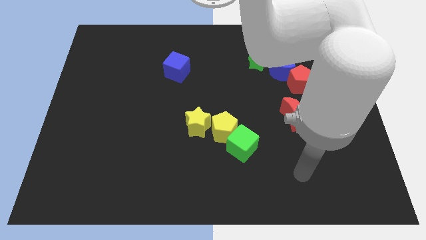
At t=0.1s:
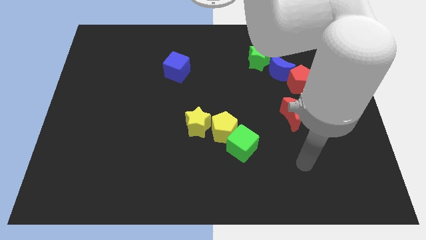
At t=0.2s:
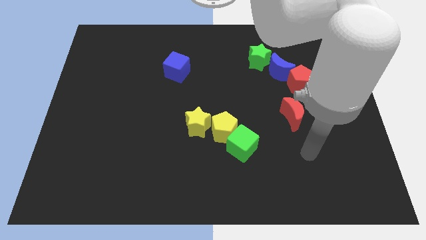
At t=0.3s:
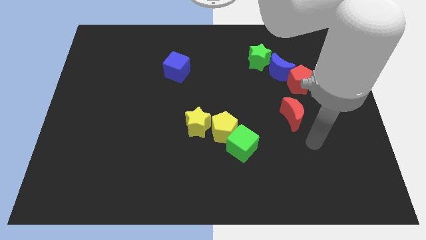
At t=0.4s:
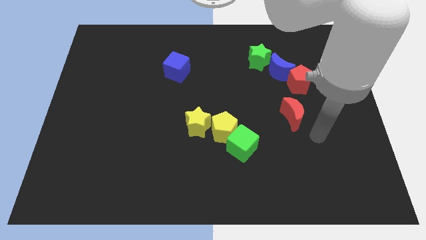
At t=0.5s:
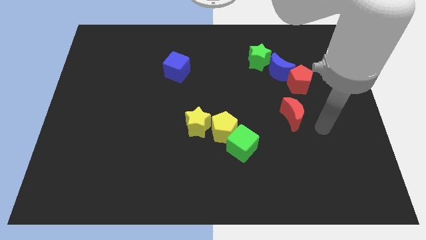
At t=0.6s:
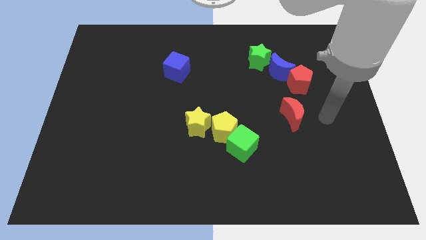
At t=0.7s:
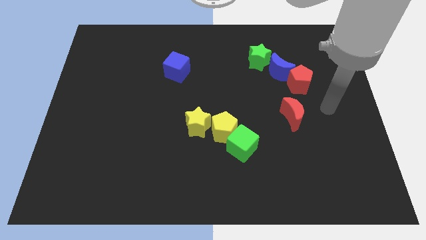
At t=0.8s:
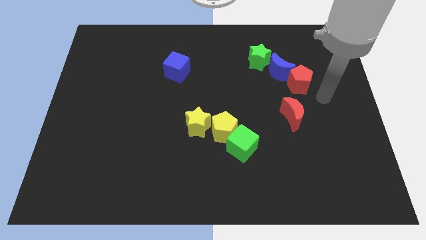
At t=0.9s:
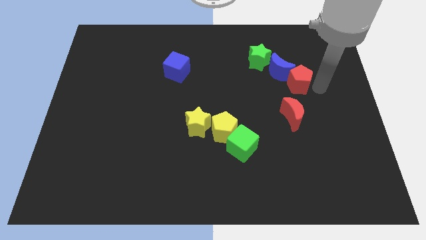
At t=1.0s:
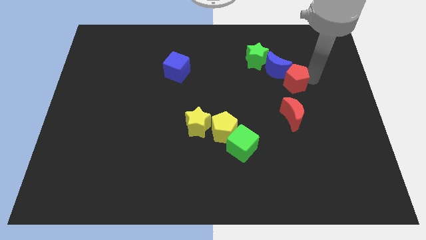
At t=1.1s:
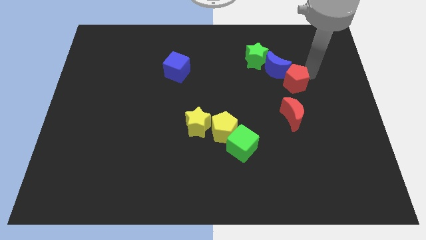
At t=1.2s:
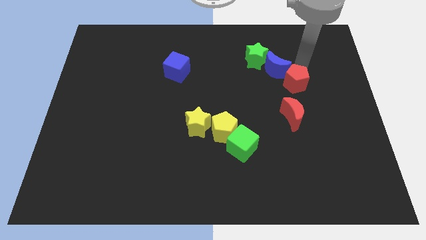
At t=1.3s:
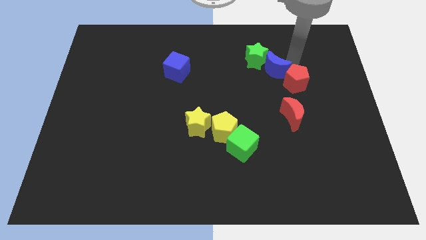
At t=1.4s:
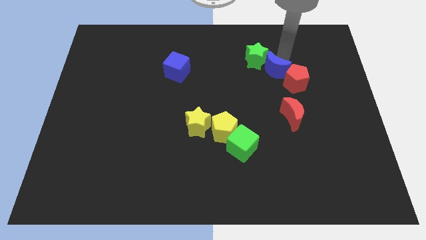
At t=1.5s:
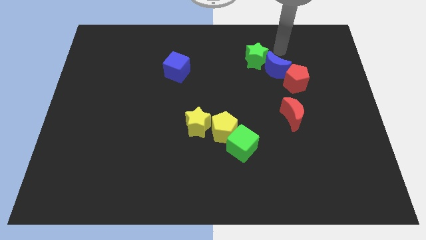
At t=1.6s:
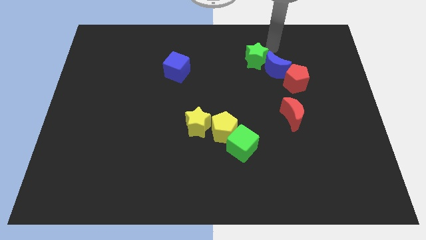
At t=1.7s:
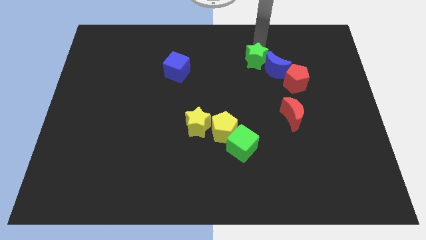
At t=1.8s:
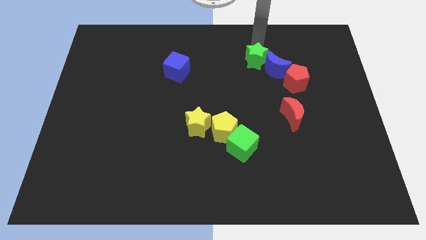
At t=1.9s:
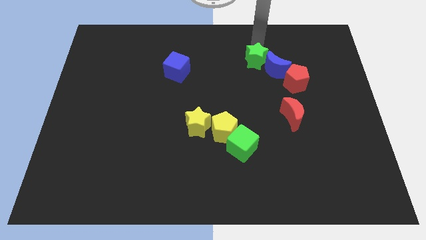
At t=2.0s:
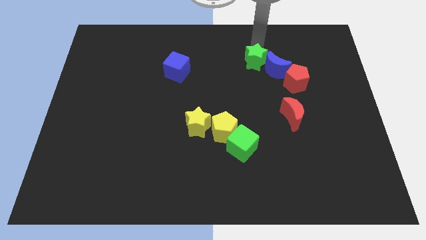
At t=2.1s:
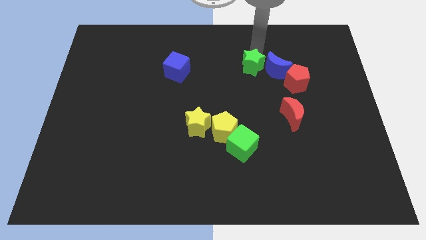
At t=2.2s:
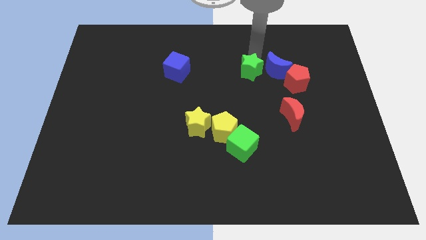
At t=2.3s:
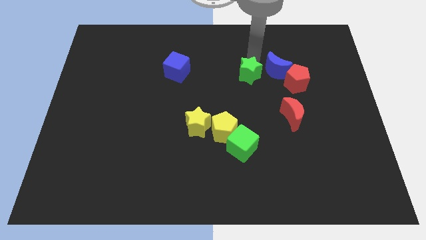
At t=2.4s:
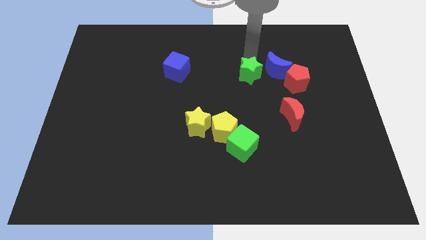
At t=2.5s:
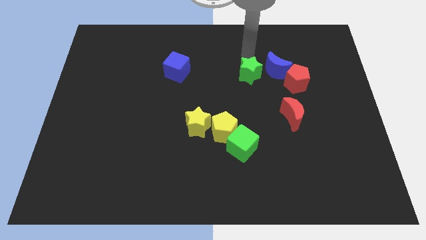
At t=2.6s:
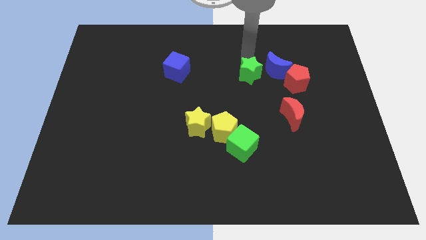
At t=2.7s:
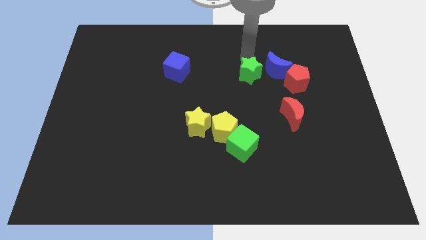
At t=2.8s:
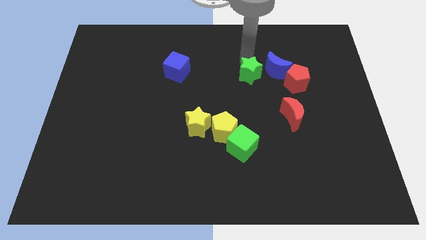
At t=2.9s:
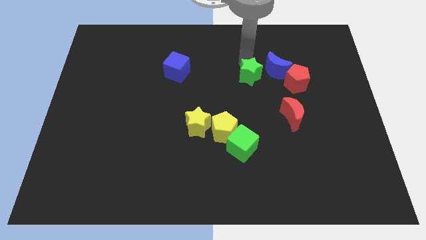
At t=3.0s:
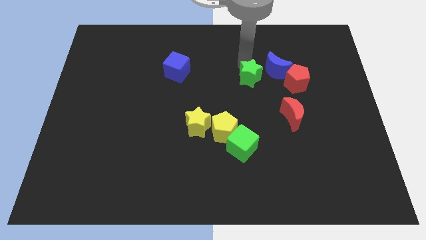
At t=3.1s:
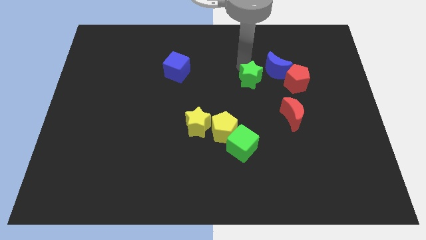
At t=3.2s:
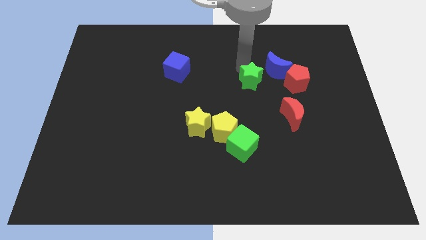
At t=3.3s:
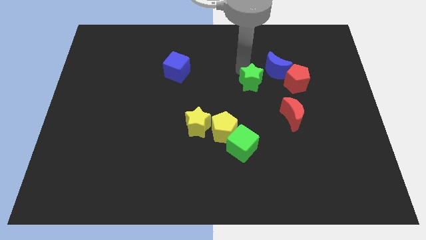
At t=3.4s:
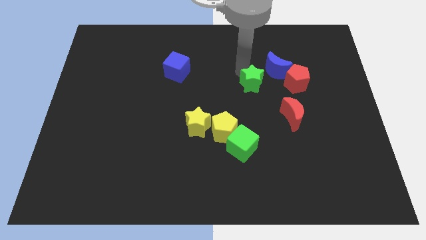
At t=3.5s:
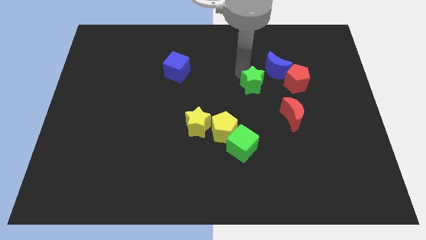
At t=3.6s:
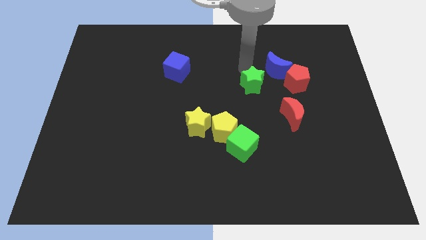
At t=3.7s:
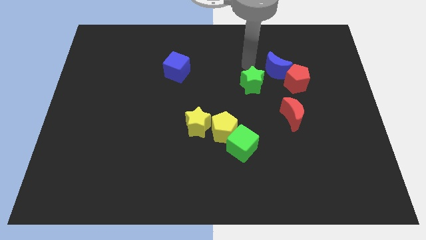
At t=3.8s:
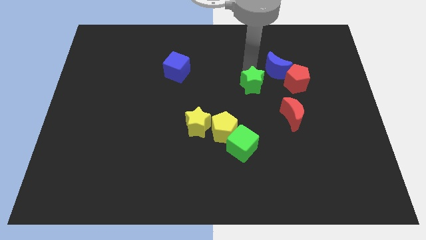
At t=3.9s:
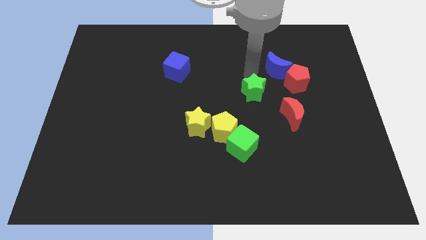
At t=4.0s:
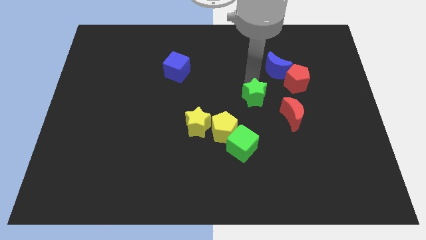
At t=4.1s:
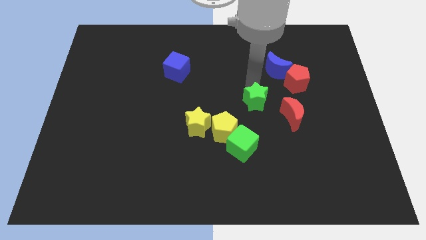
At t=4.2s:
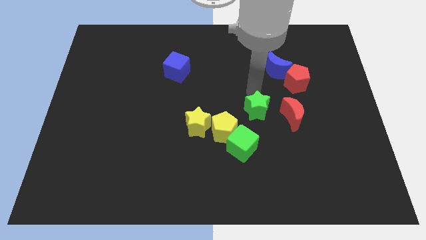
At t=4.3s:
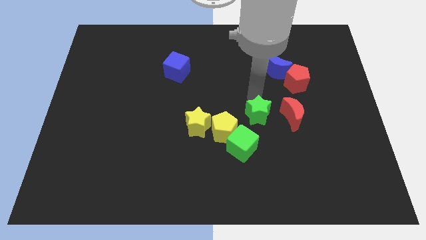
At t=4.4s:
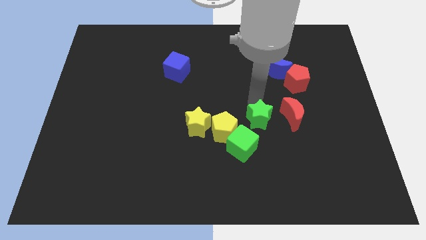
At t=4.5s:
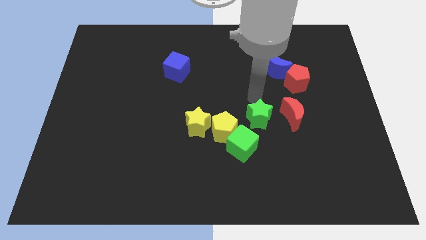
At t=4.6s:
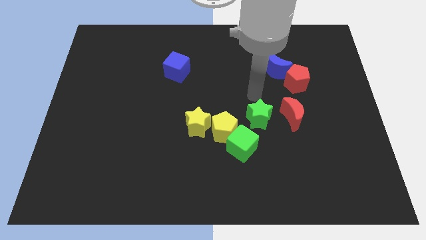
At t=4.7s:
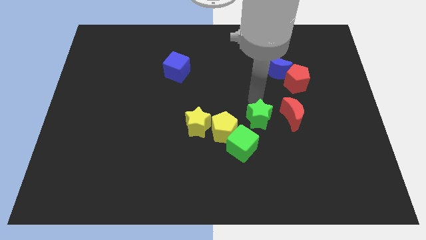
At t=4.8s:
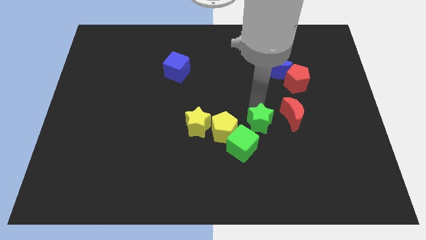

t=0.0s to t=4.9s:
slide the green star downwards

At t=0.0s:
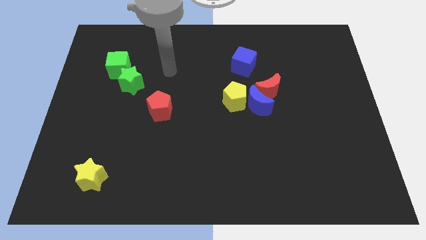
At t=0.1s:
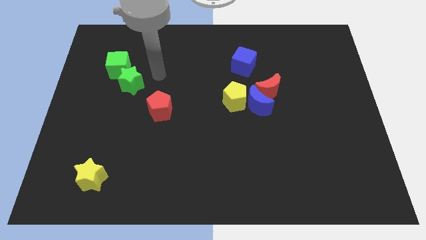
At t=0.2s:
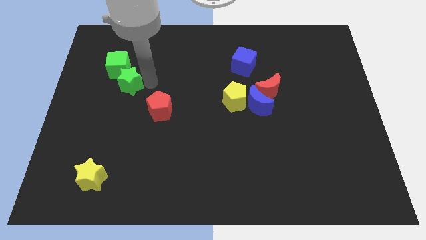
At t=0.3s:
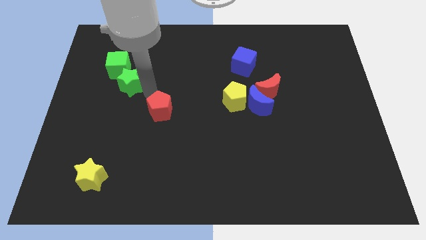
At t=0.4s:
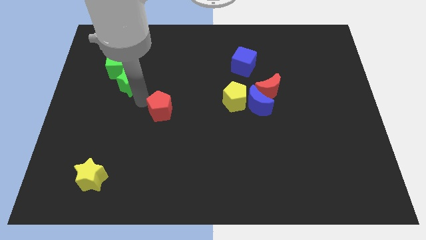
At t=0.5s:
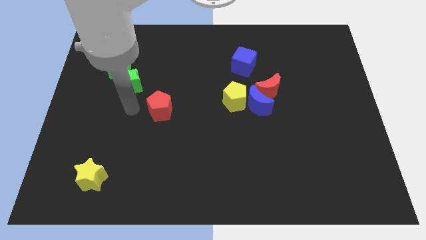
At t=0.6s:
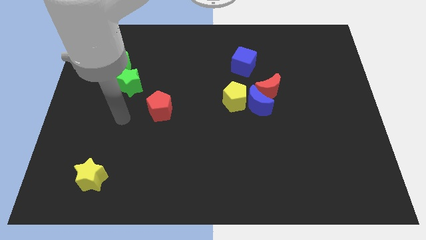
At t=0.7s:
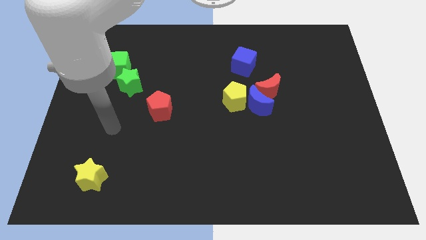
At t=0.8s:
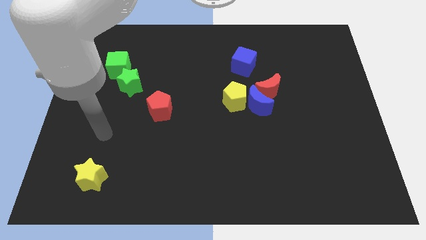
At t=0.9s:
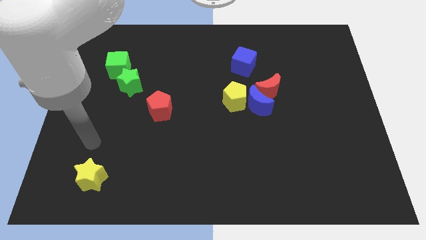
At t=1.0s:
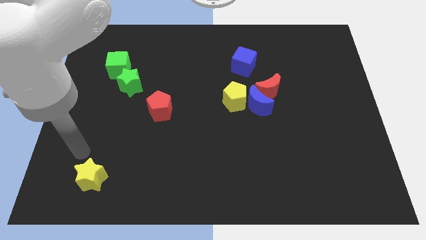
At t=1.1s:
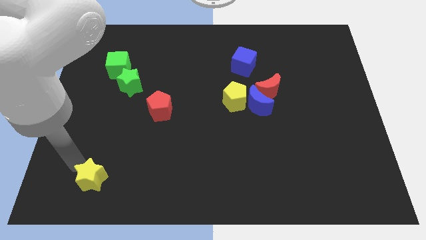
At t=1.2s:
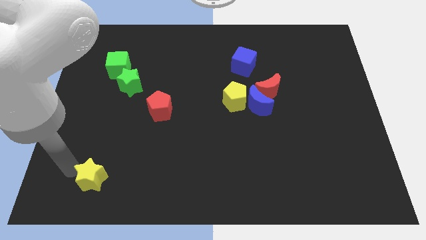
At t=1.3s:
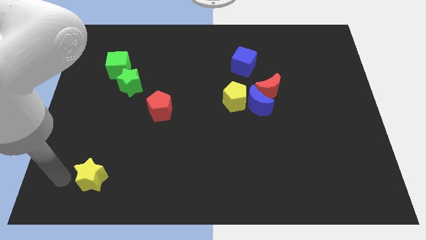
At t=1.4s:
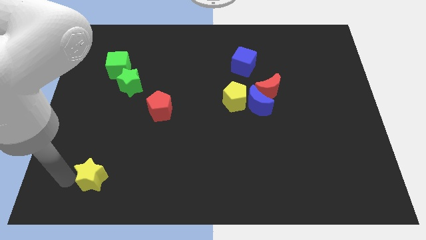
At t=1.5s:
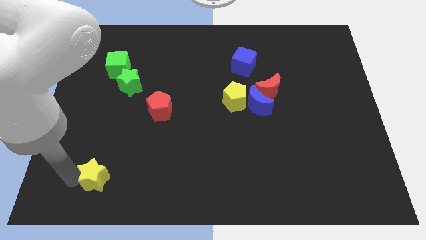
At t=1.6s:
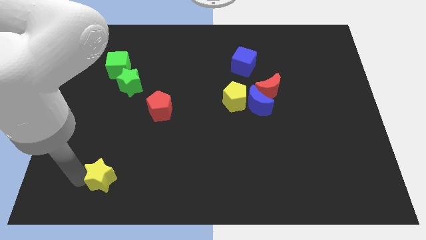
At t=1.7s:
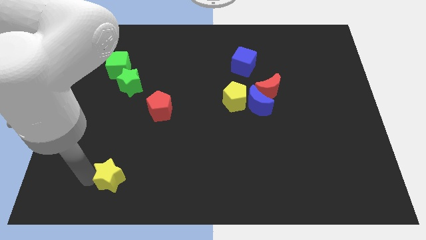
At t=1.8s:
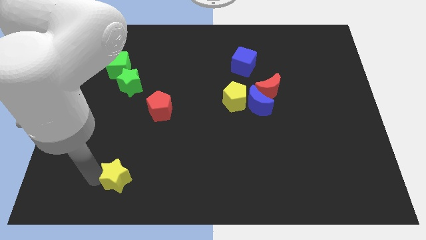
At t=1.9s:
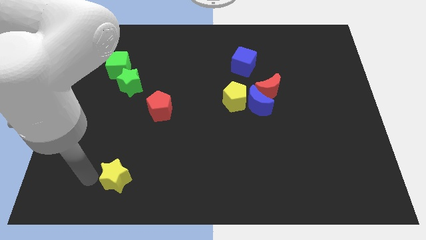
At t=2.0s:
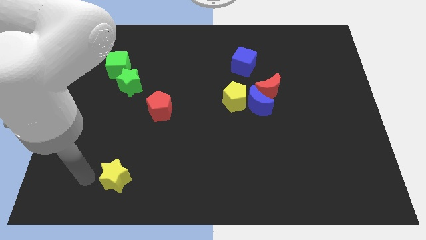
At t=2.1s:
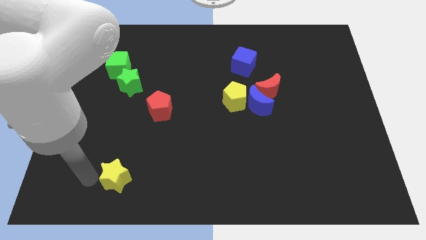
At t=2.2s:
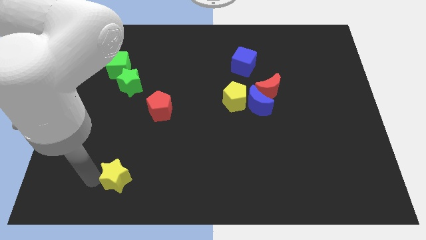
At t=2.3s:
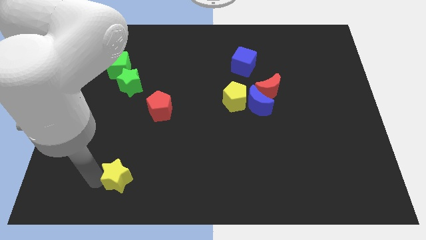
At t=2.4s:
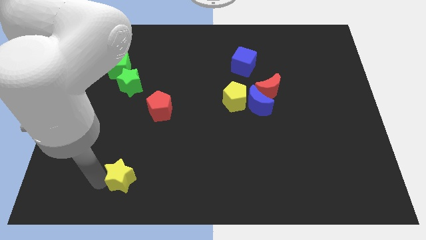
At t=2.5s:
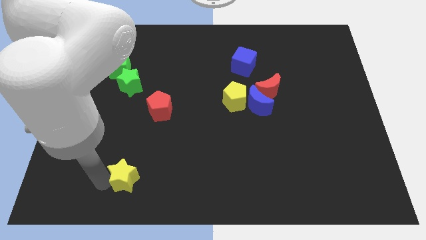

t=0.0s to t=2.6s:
slightly move the yellow star right

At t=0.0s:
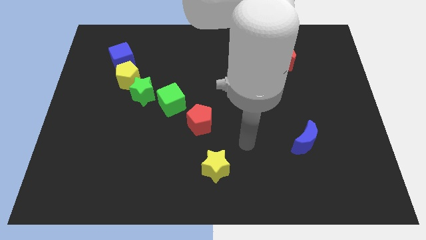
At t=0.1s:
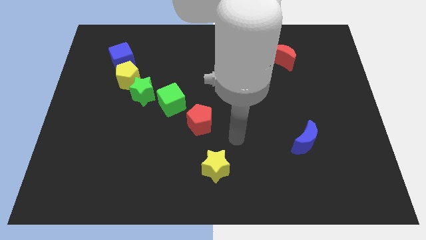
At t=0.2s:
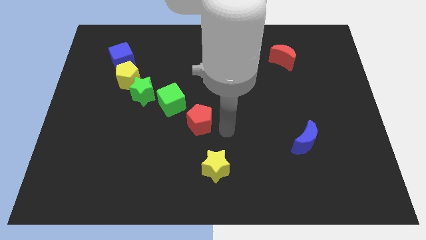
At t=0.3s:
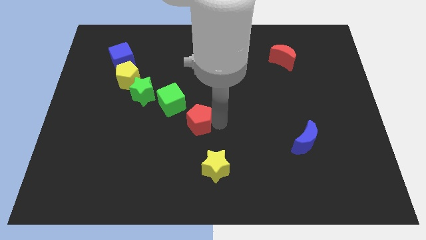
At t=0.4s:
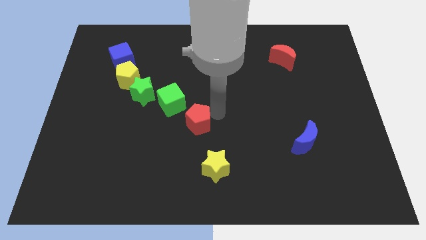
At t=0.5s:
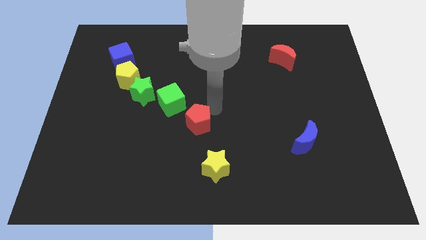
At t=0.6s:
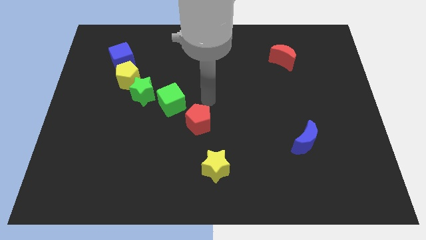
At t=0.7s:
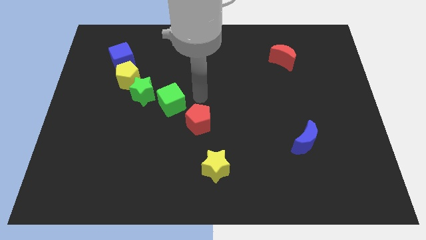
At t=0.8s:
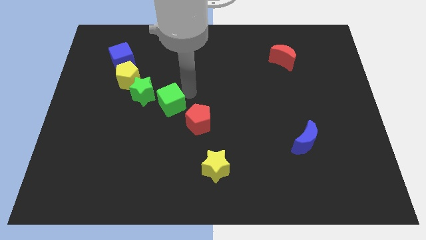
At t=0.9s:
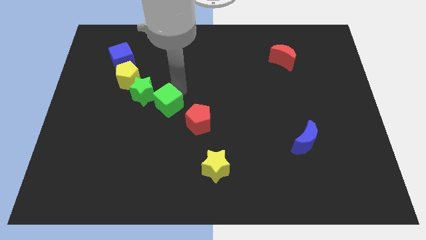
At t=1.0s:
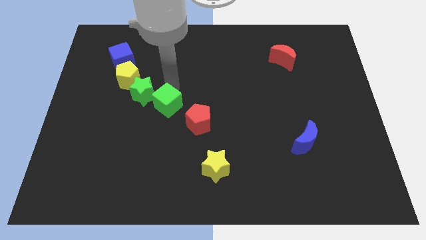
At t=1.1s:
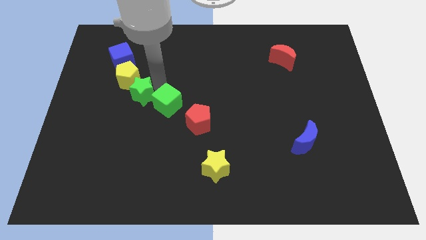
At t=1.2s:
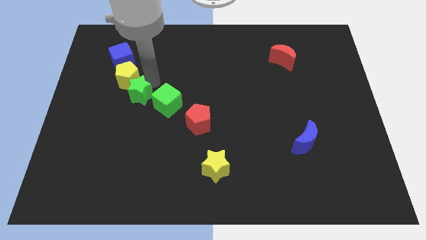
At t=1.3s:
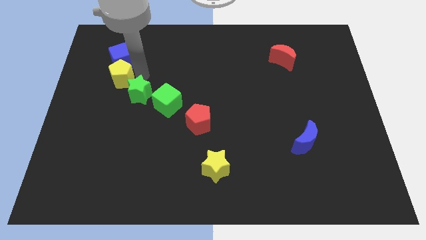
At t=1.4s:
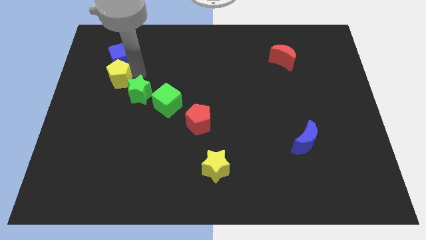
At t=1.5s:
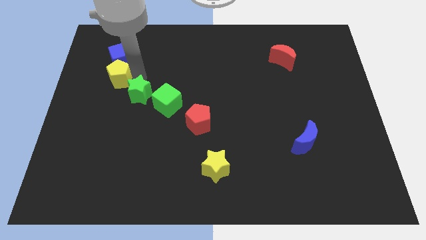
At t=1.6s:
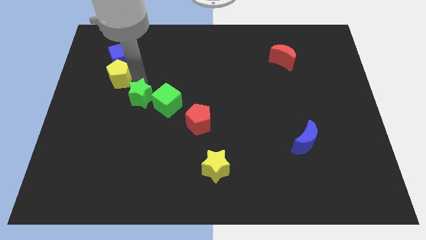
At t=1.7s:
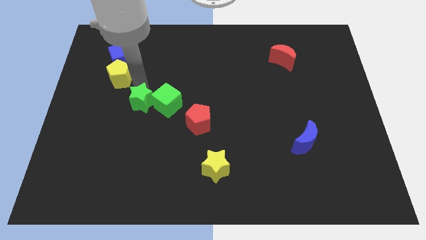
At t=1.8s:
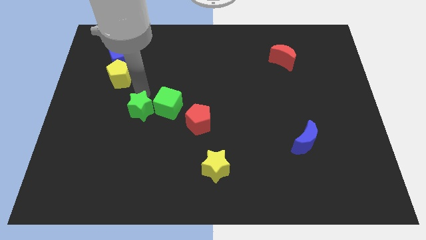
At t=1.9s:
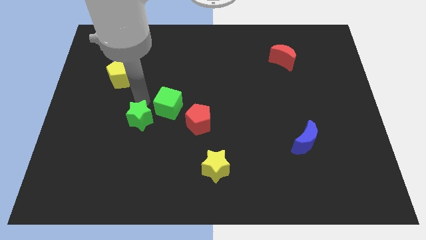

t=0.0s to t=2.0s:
move the green star a little down
